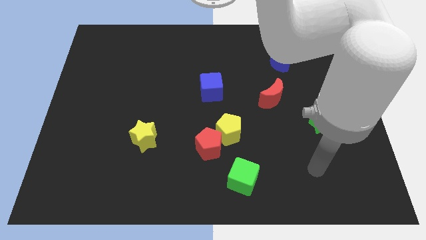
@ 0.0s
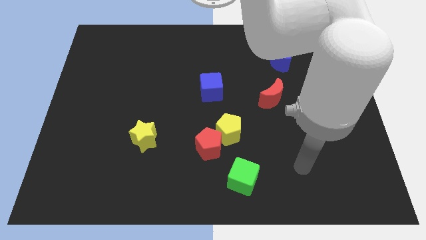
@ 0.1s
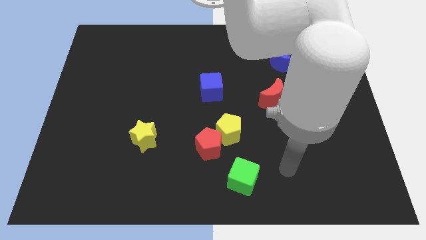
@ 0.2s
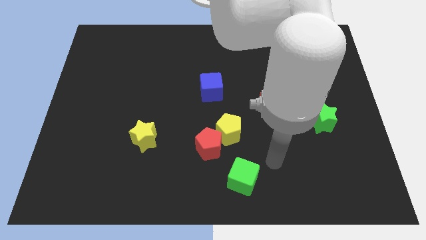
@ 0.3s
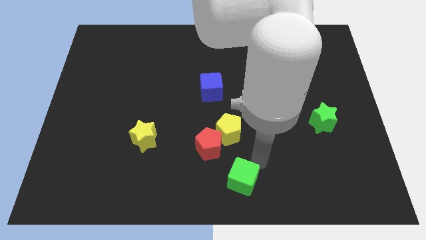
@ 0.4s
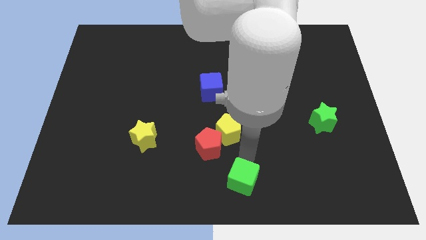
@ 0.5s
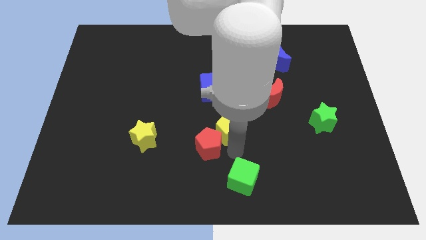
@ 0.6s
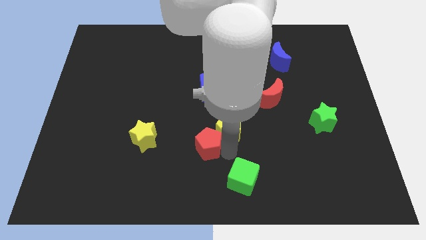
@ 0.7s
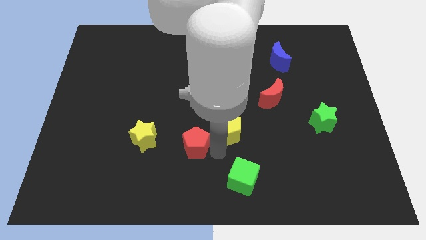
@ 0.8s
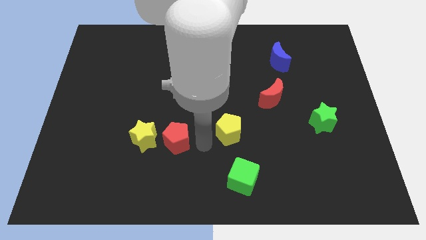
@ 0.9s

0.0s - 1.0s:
move the yellow pentagon away from the red pentagon

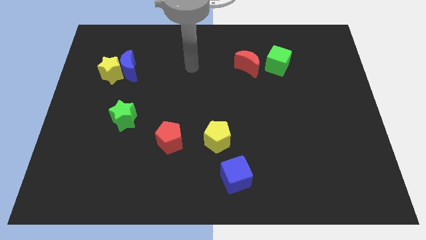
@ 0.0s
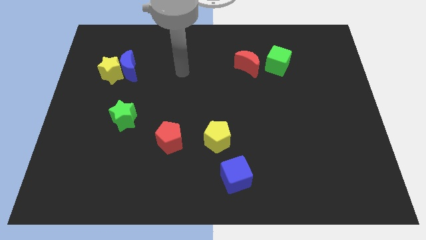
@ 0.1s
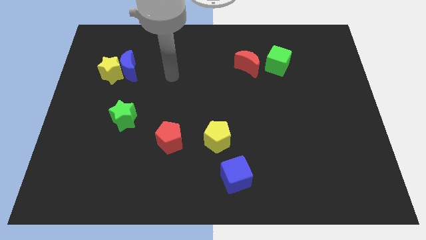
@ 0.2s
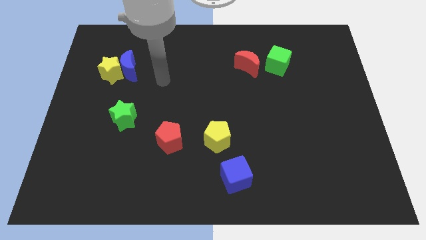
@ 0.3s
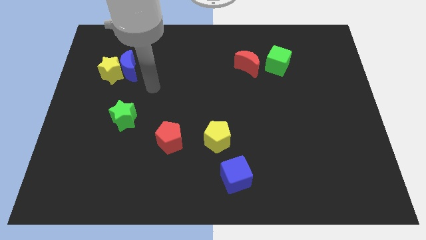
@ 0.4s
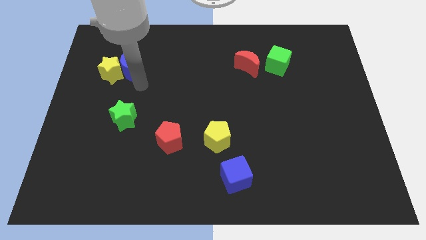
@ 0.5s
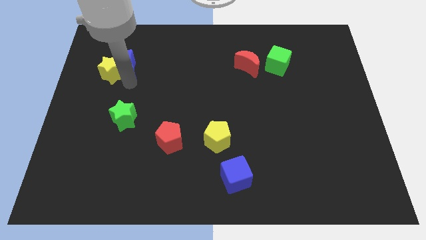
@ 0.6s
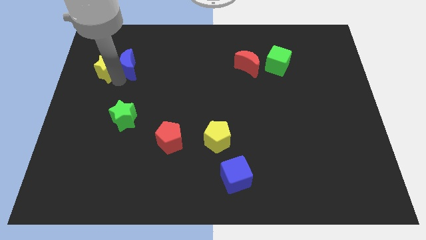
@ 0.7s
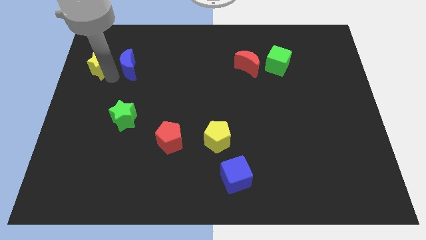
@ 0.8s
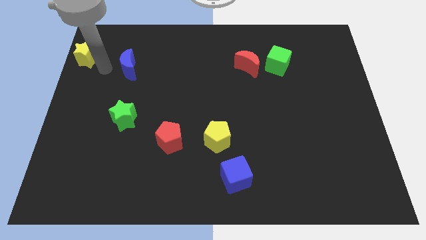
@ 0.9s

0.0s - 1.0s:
separate the blue moon from the yellow star

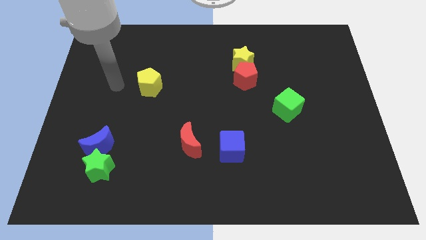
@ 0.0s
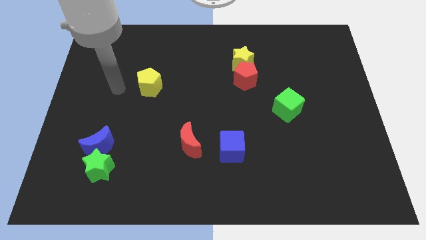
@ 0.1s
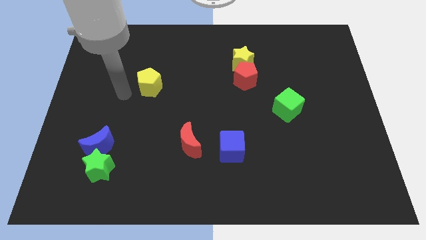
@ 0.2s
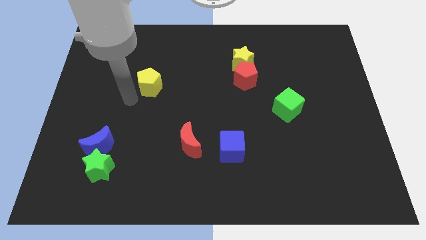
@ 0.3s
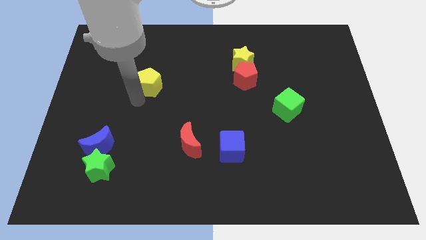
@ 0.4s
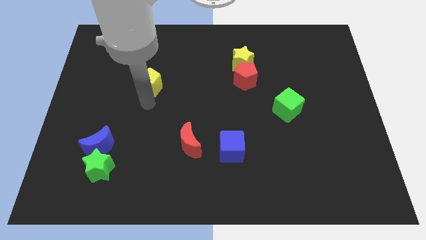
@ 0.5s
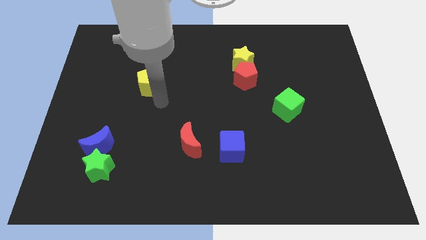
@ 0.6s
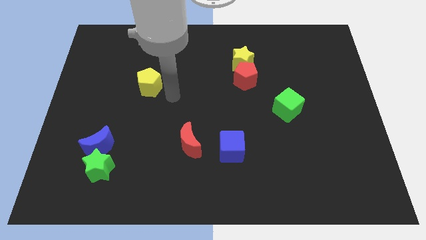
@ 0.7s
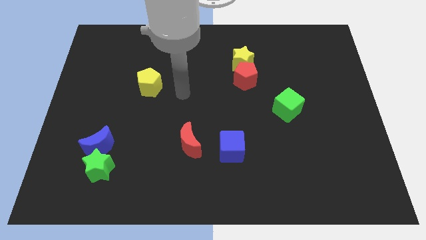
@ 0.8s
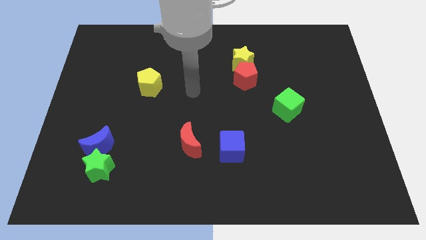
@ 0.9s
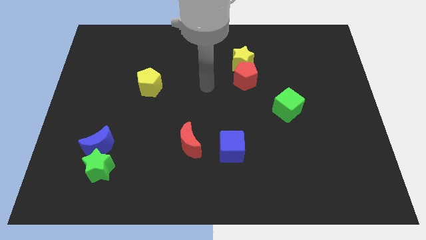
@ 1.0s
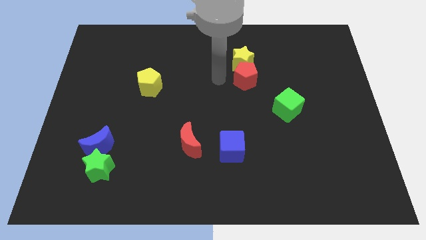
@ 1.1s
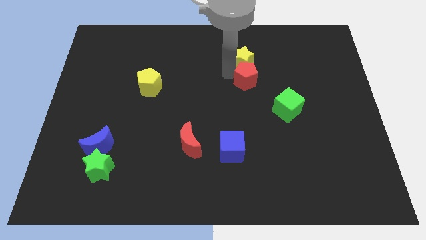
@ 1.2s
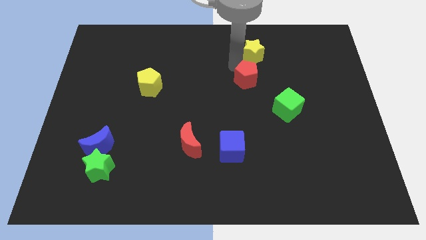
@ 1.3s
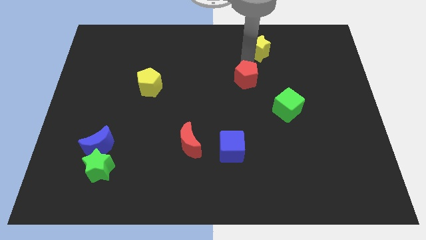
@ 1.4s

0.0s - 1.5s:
separate the red pentagon from the yellow star

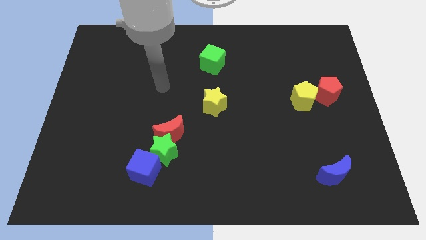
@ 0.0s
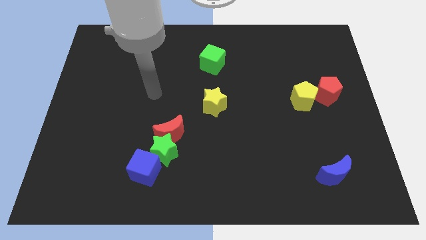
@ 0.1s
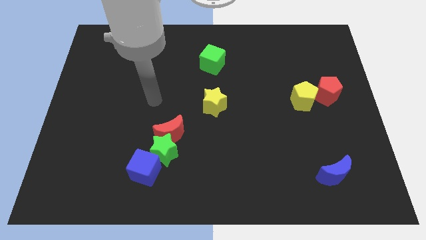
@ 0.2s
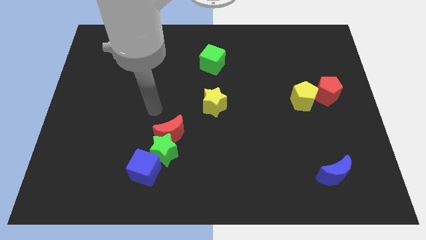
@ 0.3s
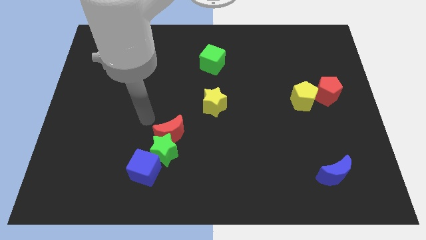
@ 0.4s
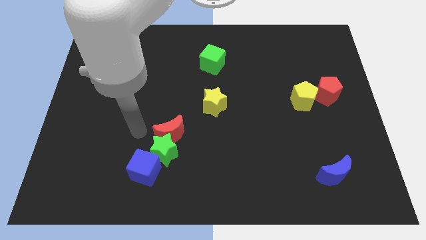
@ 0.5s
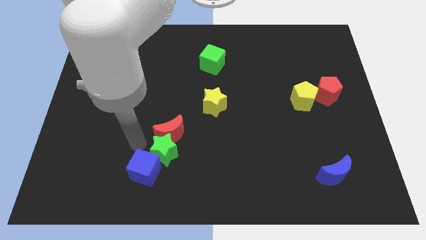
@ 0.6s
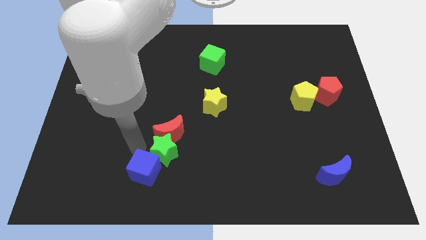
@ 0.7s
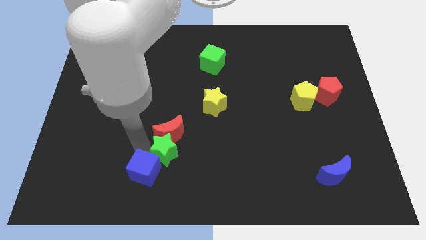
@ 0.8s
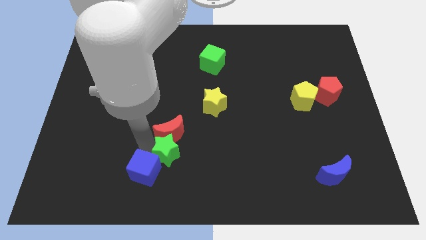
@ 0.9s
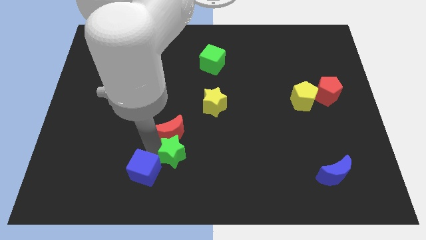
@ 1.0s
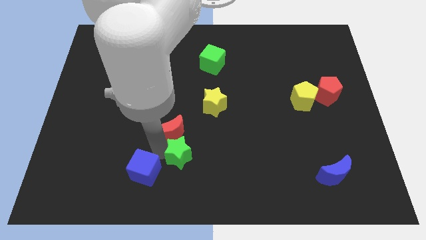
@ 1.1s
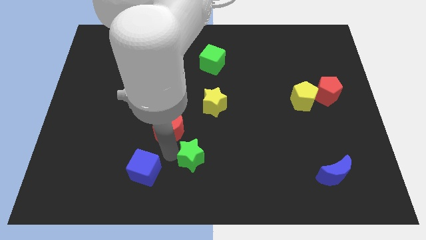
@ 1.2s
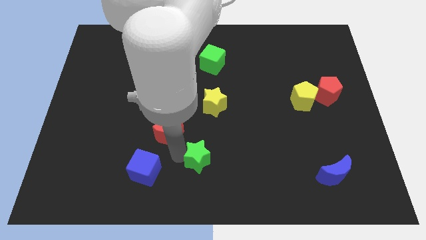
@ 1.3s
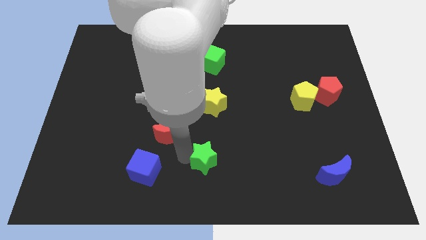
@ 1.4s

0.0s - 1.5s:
separate the green star from the red moon and blue cube

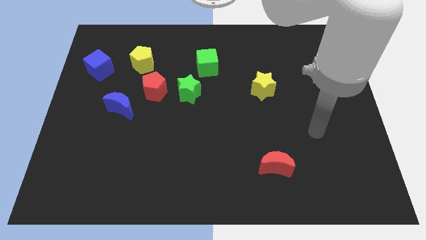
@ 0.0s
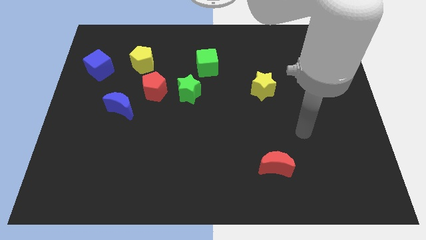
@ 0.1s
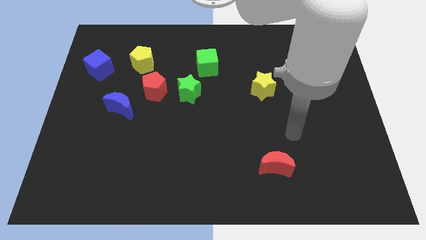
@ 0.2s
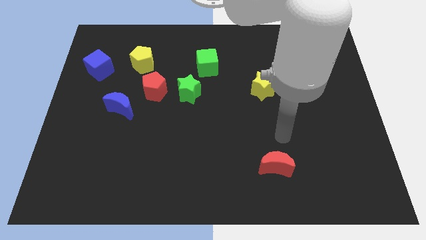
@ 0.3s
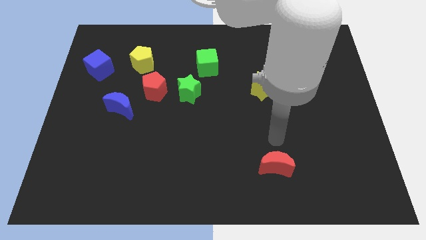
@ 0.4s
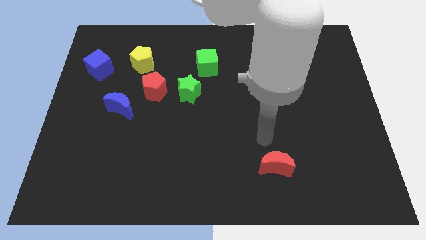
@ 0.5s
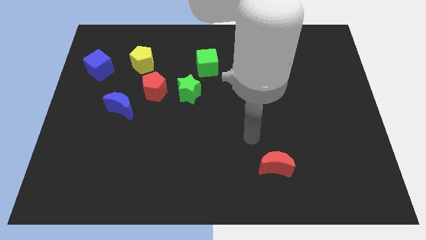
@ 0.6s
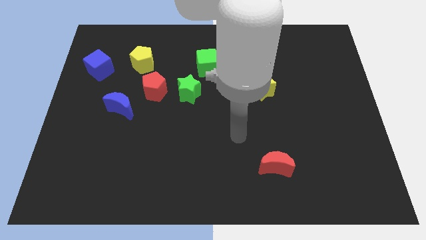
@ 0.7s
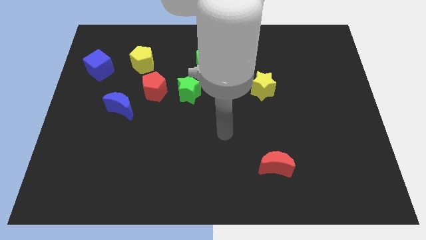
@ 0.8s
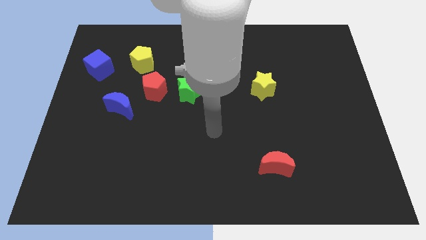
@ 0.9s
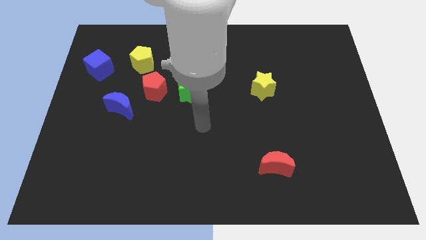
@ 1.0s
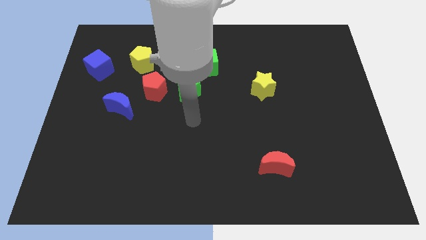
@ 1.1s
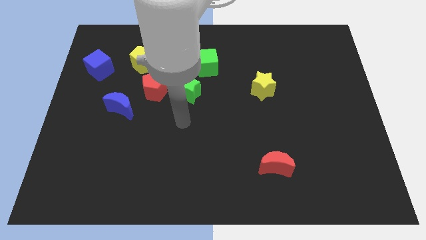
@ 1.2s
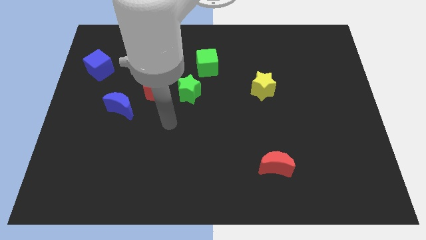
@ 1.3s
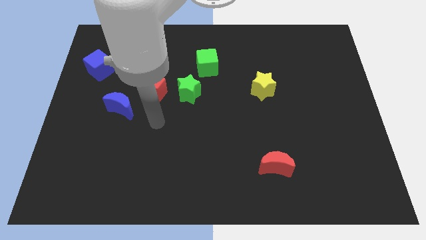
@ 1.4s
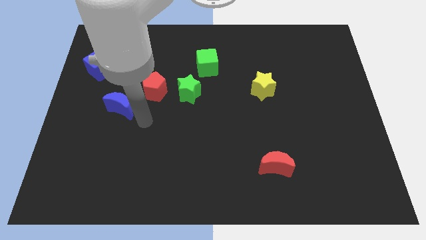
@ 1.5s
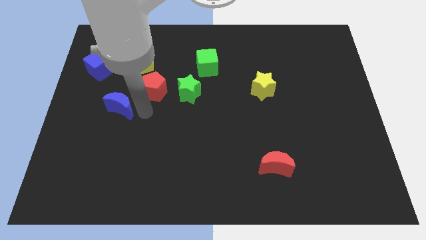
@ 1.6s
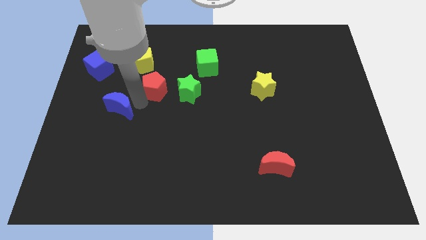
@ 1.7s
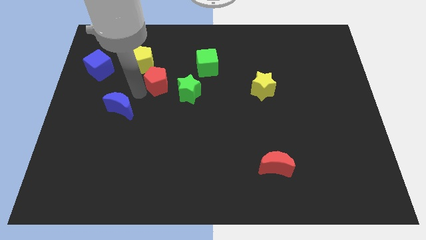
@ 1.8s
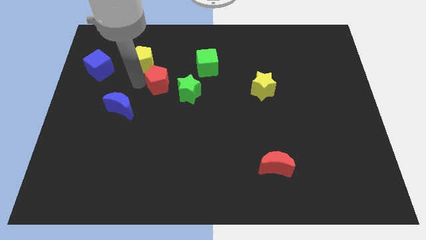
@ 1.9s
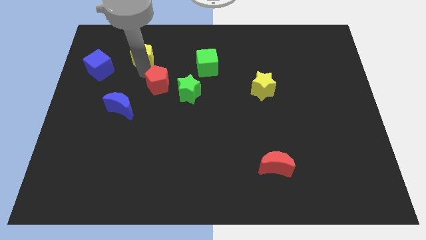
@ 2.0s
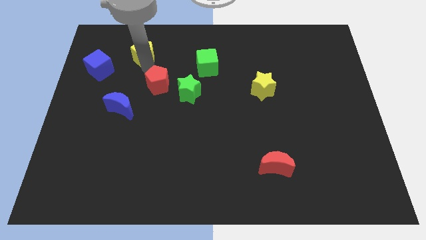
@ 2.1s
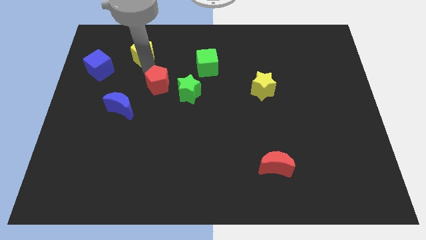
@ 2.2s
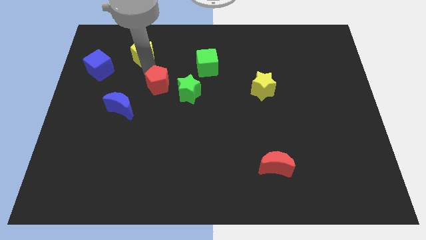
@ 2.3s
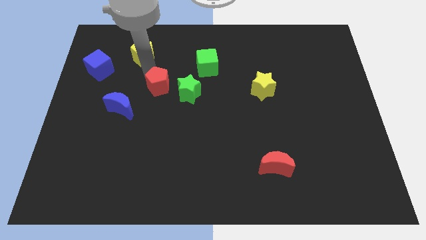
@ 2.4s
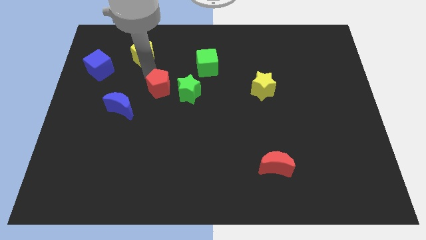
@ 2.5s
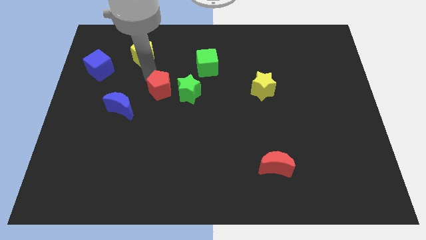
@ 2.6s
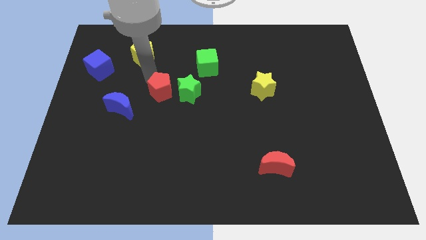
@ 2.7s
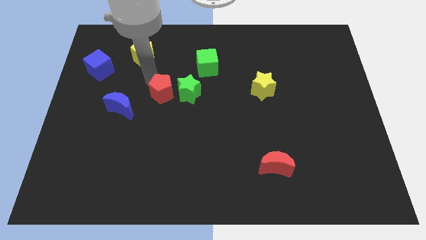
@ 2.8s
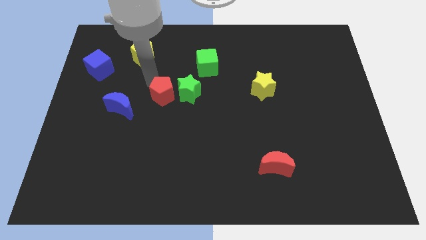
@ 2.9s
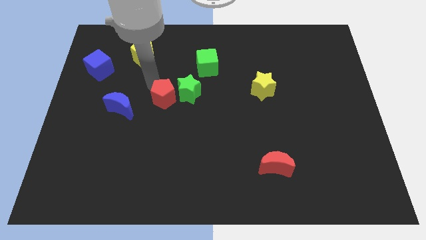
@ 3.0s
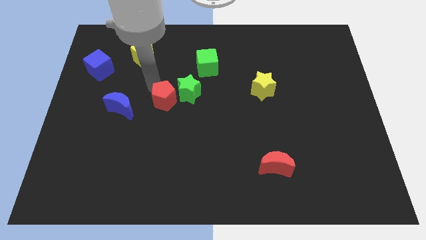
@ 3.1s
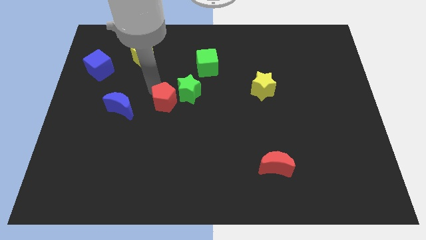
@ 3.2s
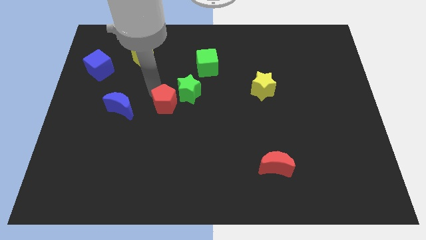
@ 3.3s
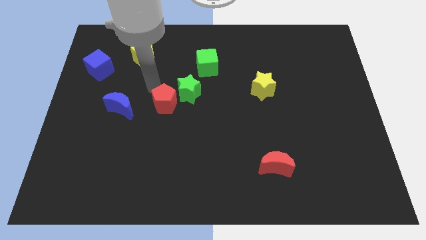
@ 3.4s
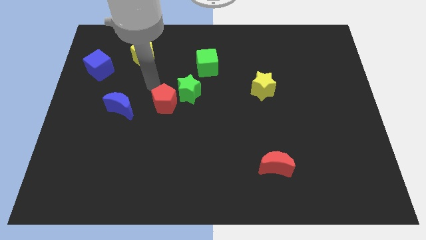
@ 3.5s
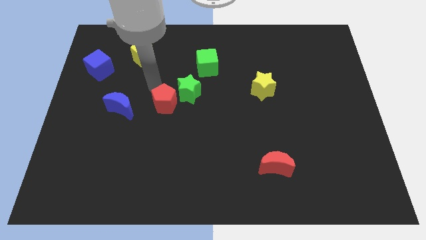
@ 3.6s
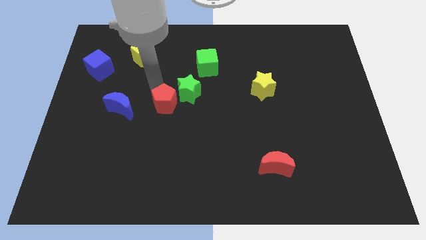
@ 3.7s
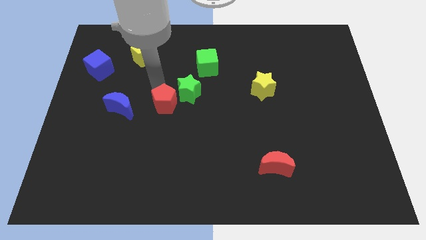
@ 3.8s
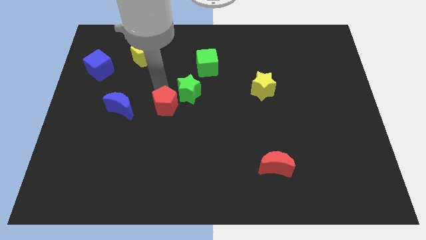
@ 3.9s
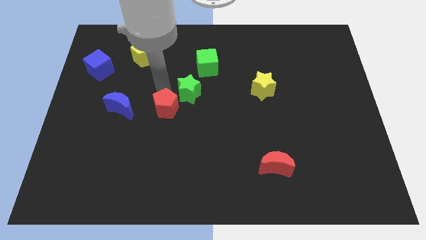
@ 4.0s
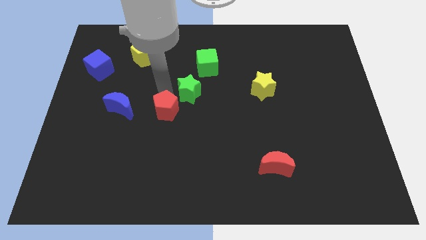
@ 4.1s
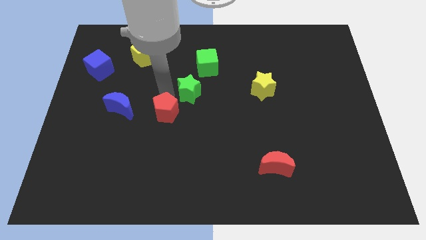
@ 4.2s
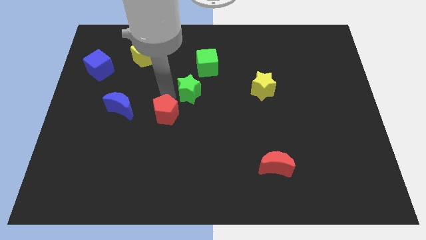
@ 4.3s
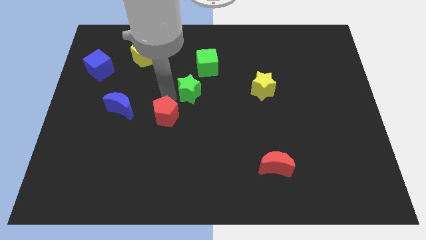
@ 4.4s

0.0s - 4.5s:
separate the red pentagon from the green star, blue moon, and yellow pentagon
